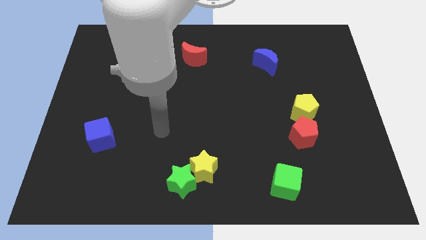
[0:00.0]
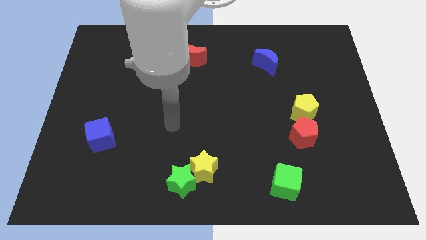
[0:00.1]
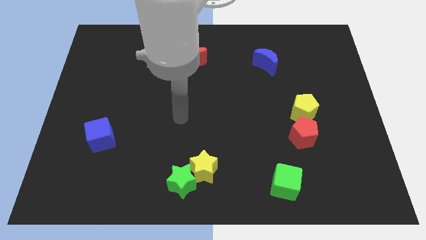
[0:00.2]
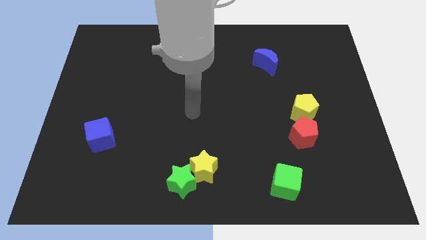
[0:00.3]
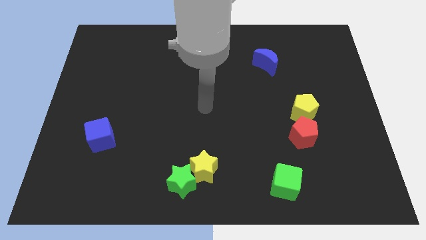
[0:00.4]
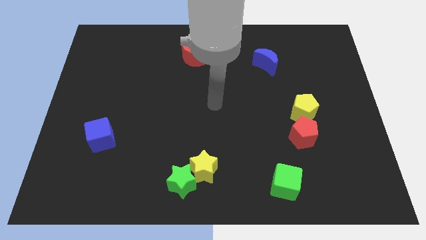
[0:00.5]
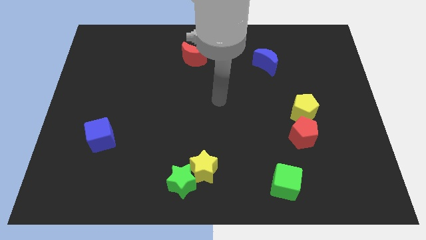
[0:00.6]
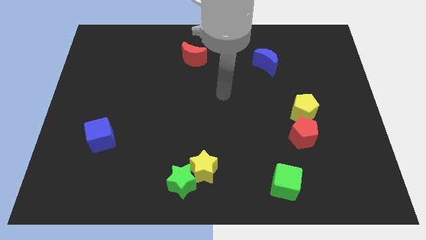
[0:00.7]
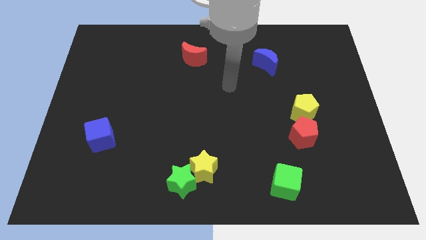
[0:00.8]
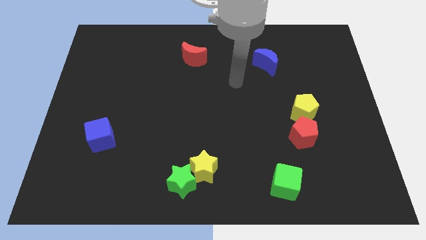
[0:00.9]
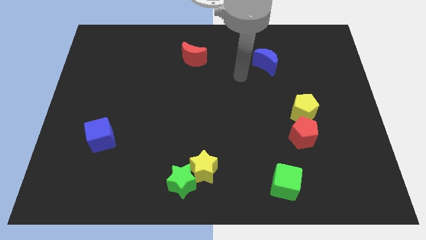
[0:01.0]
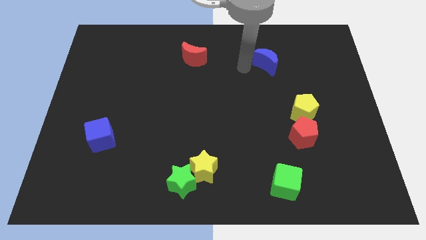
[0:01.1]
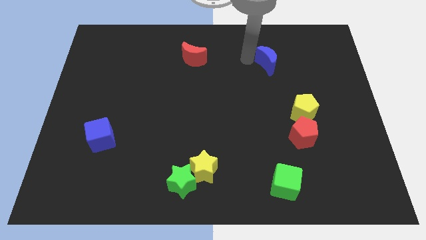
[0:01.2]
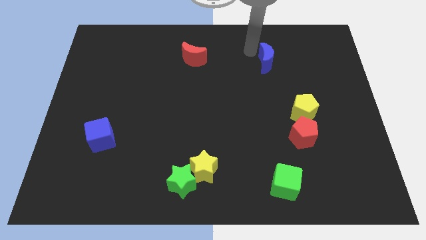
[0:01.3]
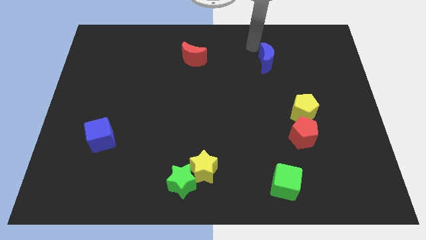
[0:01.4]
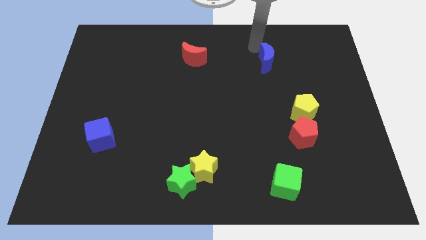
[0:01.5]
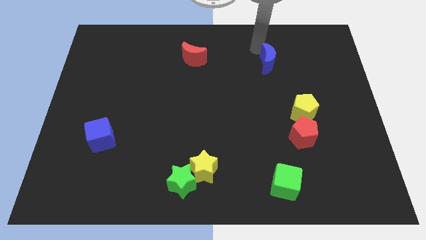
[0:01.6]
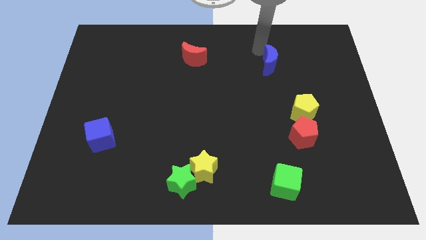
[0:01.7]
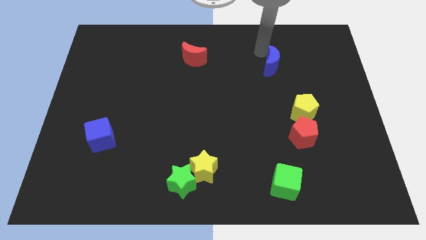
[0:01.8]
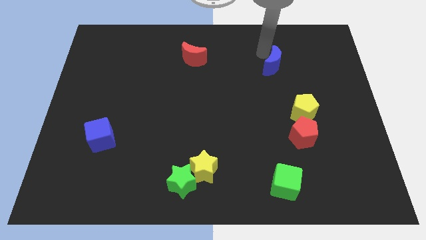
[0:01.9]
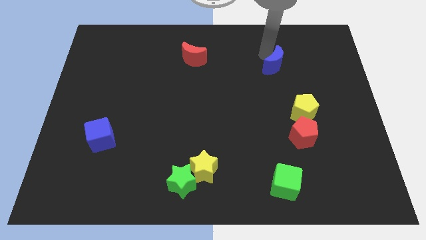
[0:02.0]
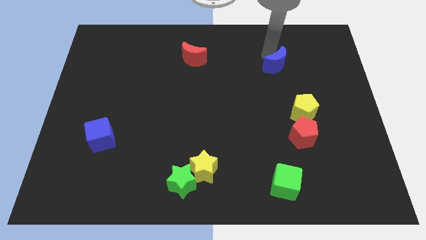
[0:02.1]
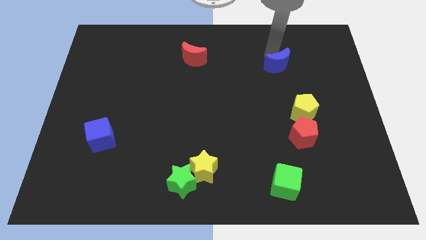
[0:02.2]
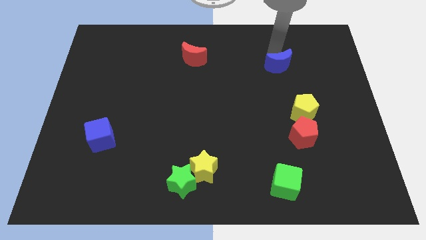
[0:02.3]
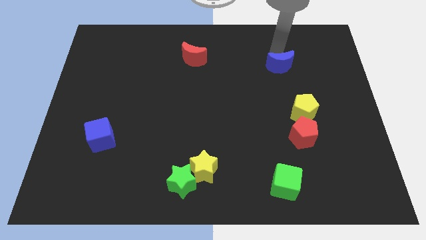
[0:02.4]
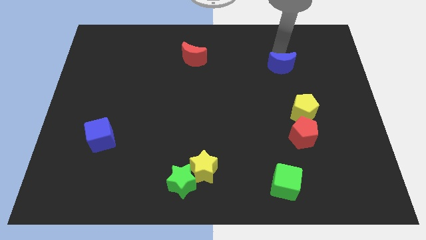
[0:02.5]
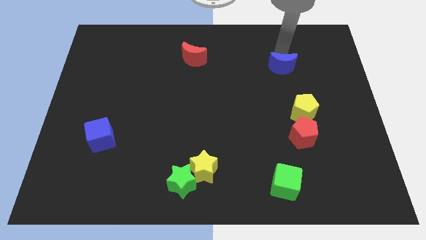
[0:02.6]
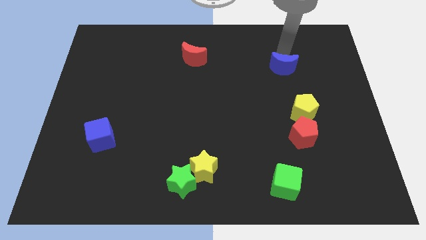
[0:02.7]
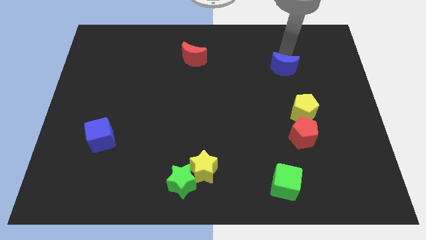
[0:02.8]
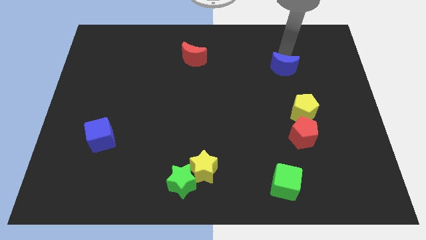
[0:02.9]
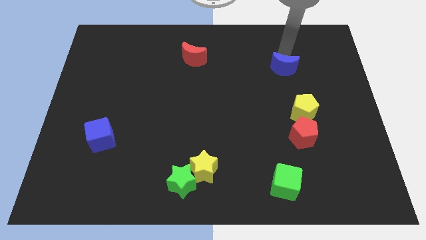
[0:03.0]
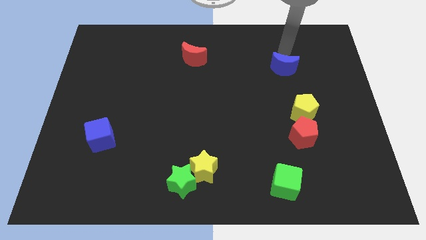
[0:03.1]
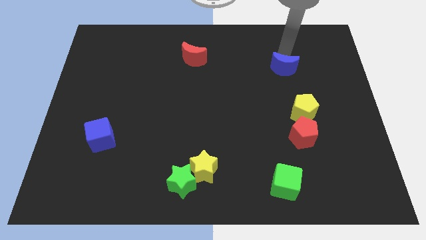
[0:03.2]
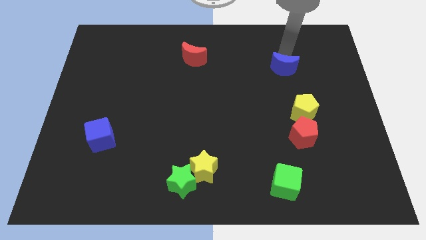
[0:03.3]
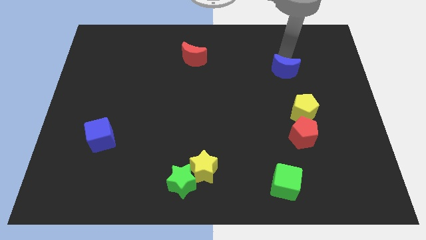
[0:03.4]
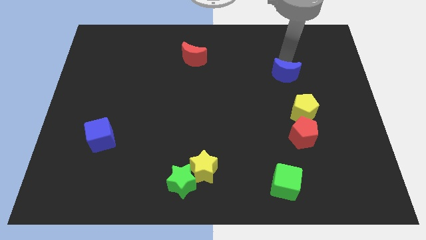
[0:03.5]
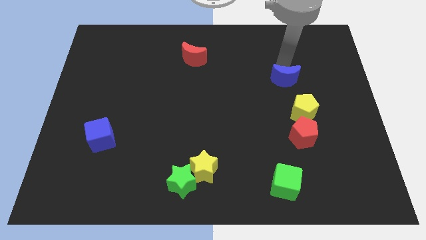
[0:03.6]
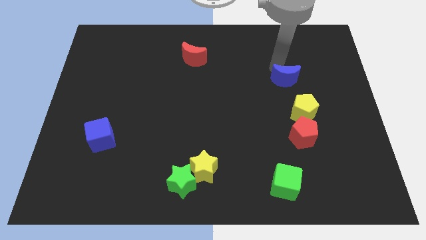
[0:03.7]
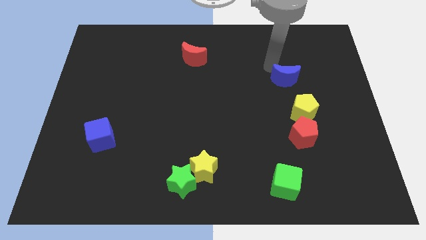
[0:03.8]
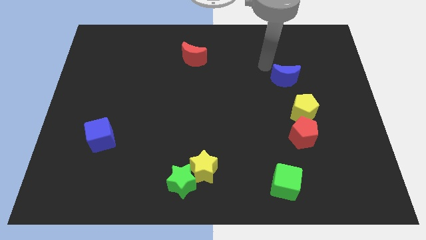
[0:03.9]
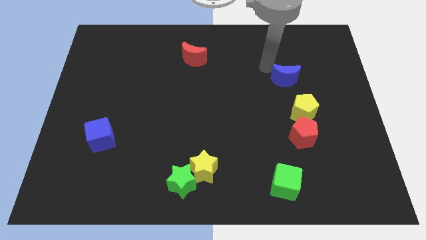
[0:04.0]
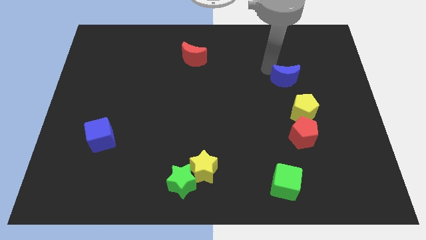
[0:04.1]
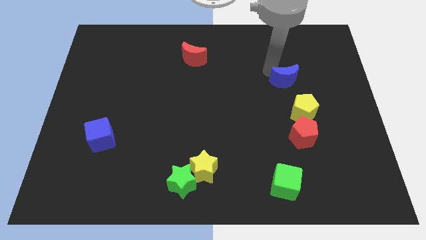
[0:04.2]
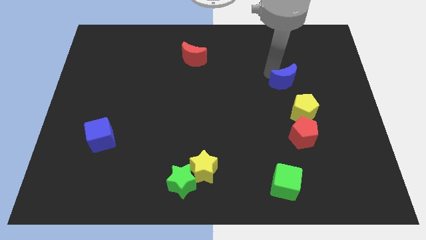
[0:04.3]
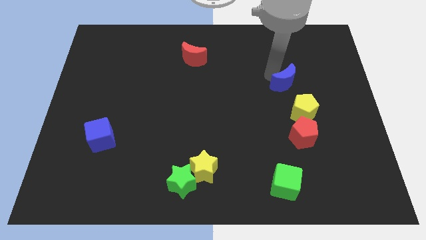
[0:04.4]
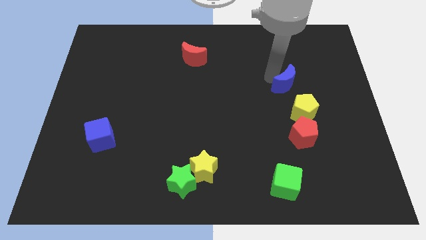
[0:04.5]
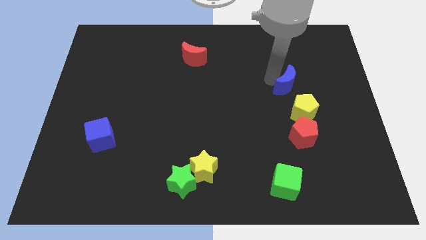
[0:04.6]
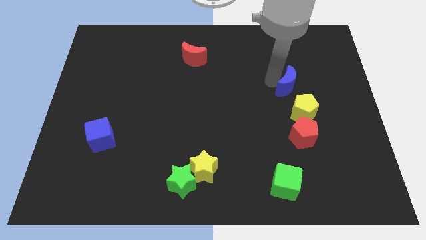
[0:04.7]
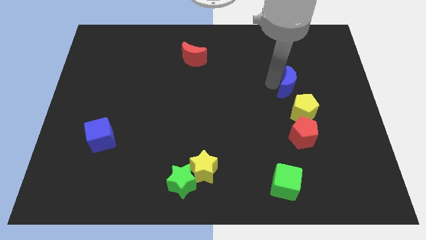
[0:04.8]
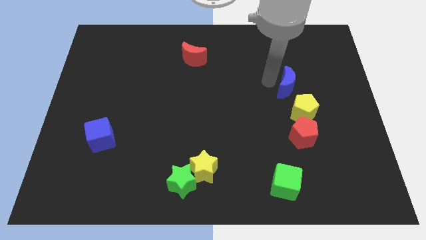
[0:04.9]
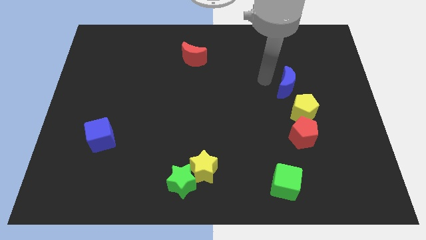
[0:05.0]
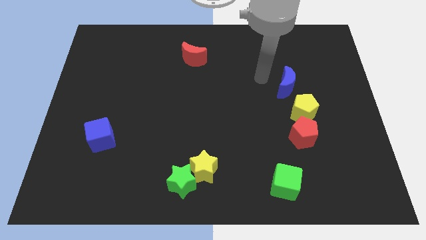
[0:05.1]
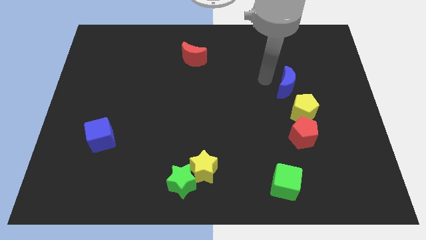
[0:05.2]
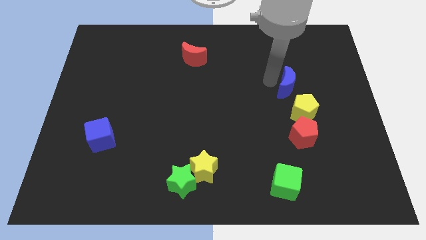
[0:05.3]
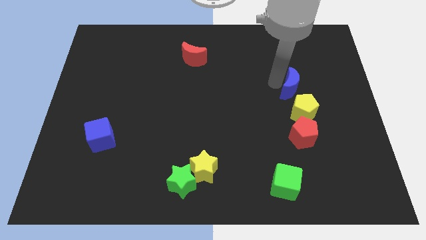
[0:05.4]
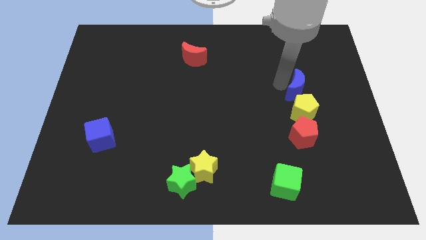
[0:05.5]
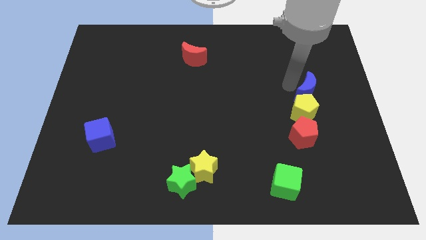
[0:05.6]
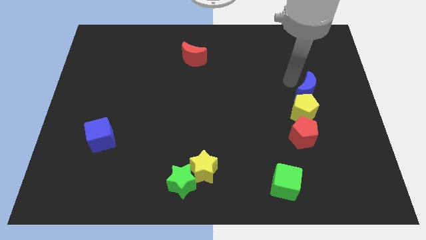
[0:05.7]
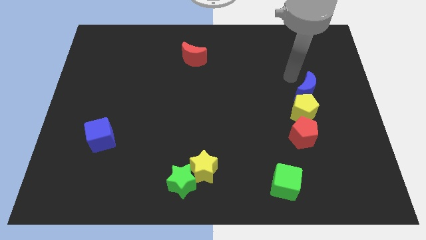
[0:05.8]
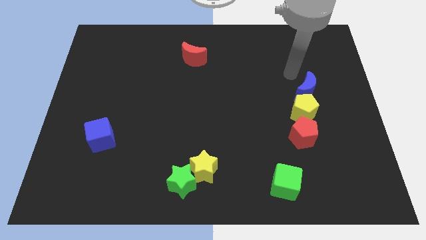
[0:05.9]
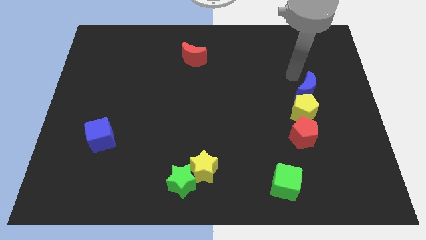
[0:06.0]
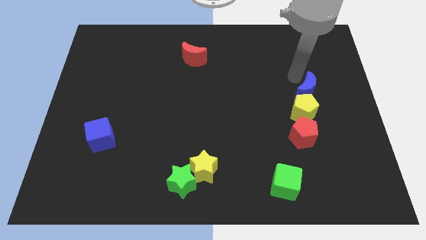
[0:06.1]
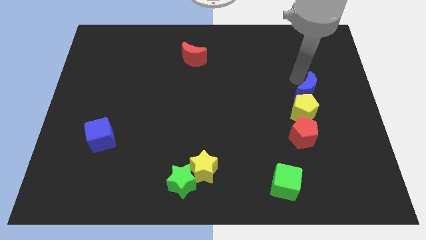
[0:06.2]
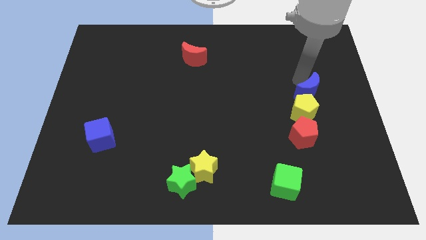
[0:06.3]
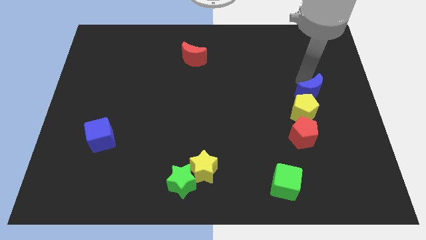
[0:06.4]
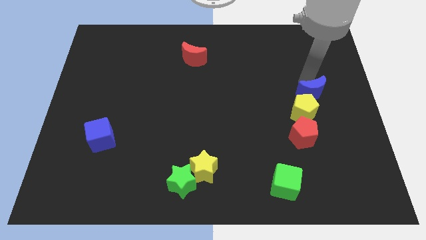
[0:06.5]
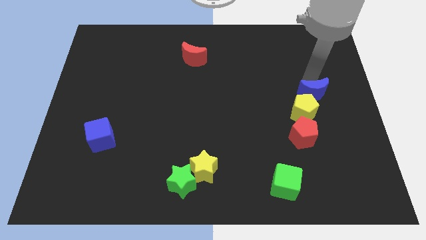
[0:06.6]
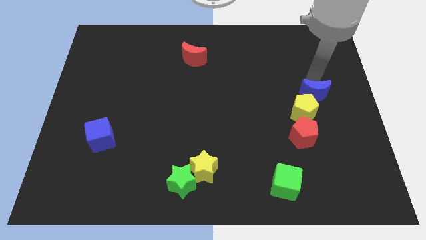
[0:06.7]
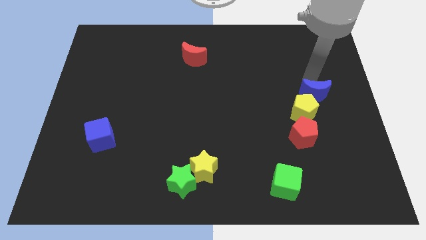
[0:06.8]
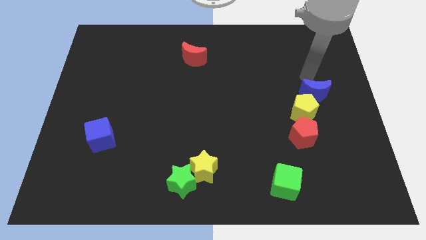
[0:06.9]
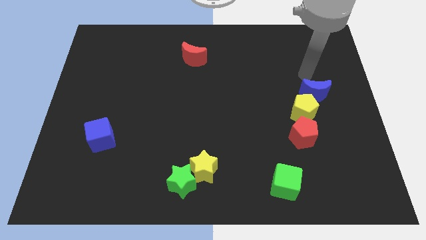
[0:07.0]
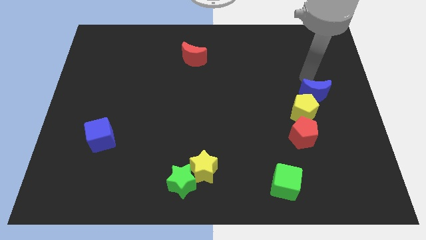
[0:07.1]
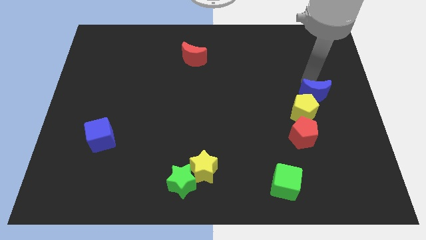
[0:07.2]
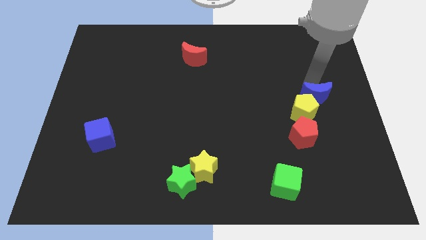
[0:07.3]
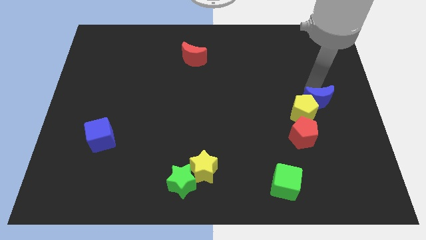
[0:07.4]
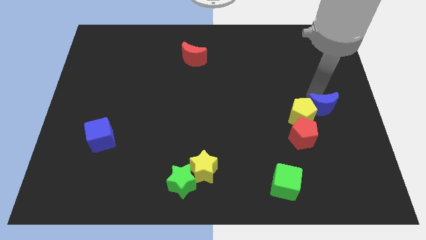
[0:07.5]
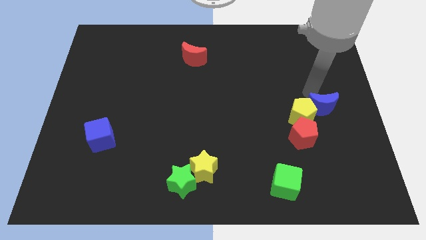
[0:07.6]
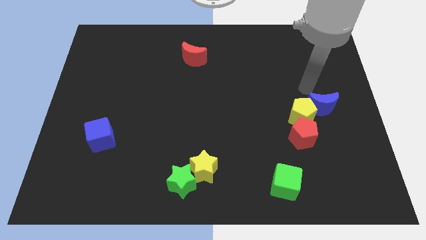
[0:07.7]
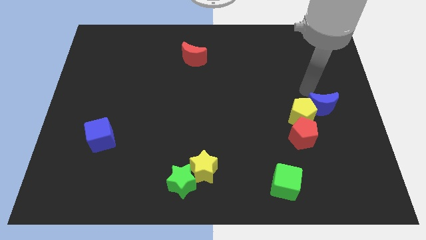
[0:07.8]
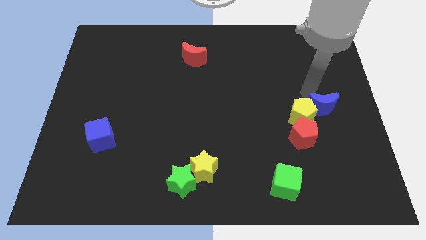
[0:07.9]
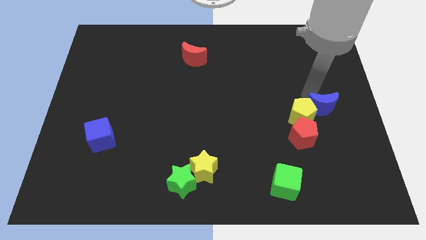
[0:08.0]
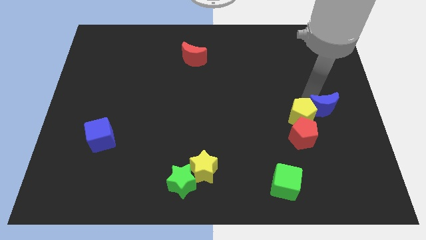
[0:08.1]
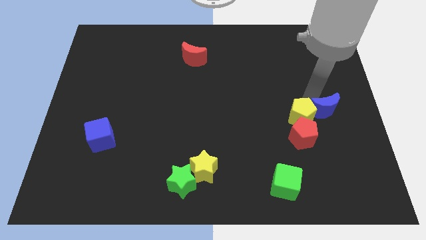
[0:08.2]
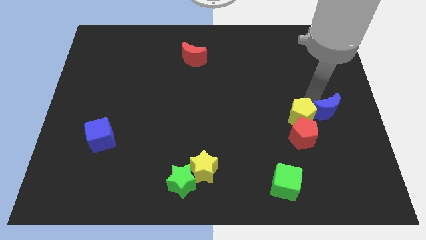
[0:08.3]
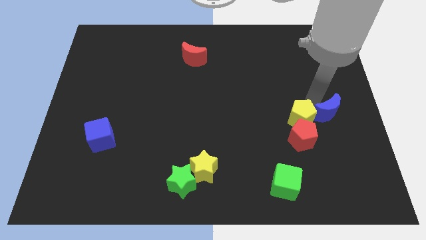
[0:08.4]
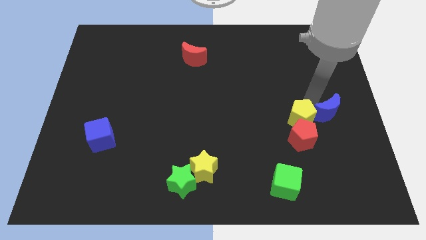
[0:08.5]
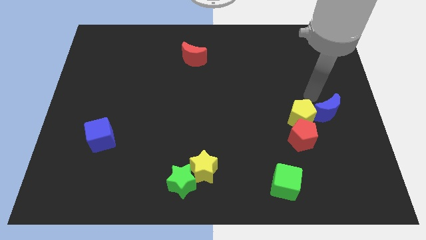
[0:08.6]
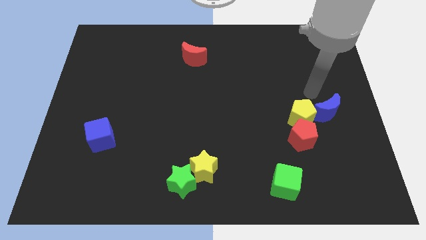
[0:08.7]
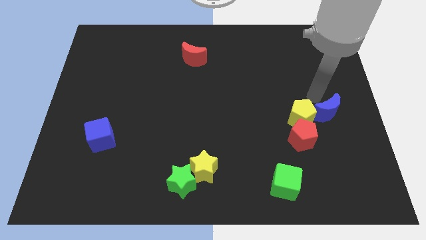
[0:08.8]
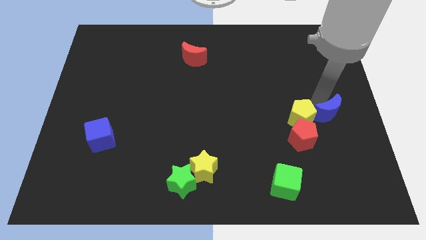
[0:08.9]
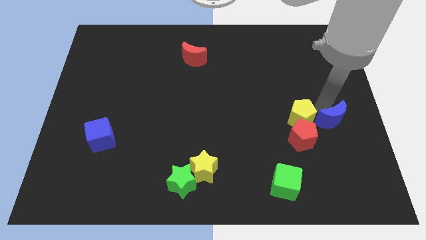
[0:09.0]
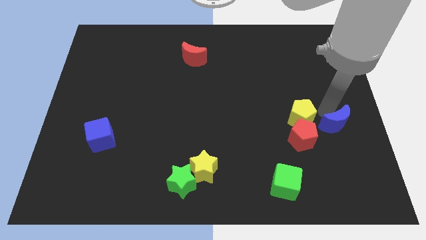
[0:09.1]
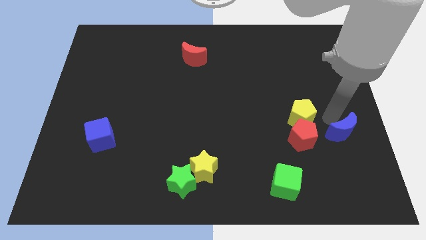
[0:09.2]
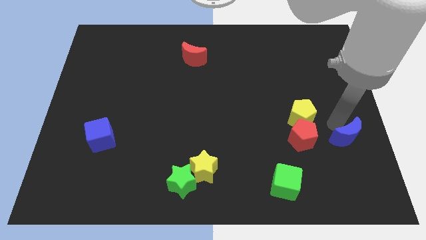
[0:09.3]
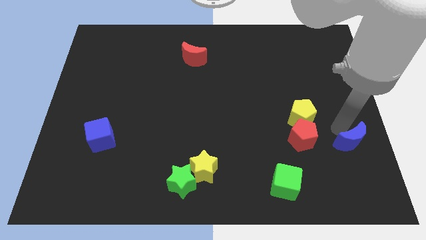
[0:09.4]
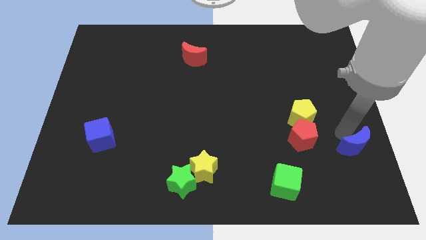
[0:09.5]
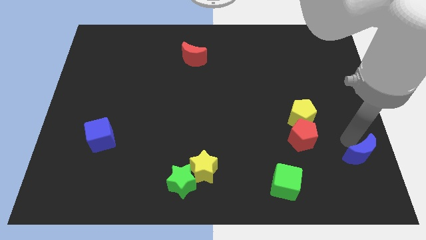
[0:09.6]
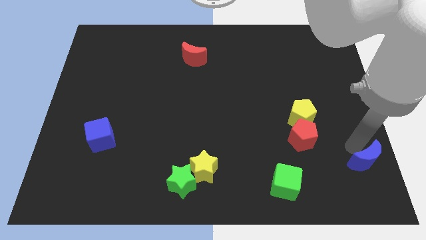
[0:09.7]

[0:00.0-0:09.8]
put the blue moon to the bottom right corner
